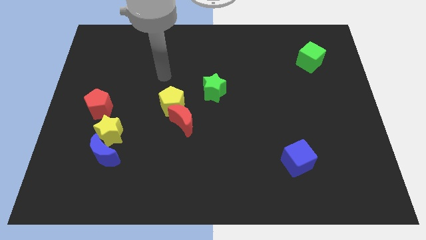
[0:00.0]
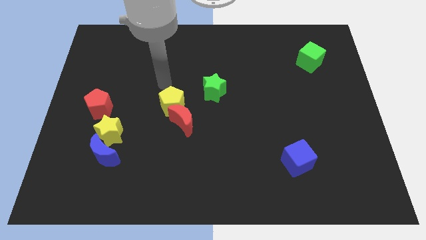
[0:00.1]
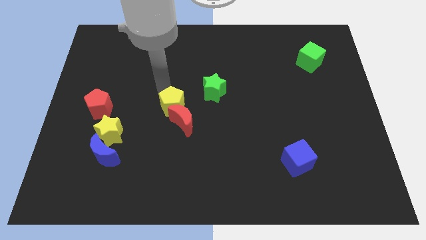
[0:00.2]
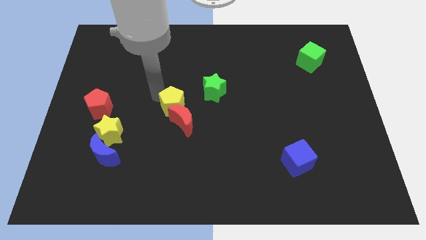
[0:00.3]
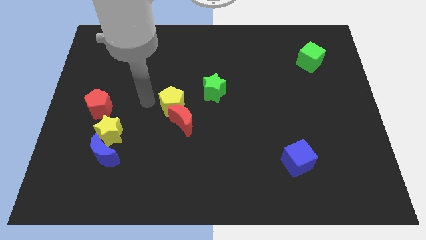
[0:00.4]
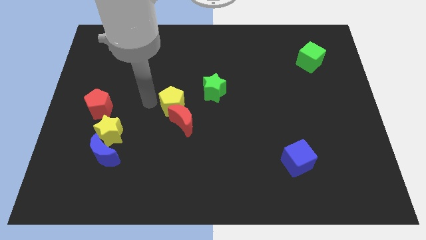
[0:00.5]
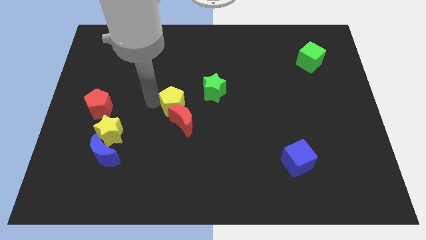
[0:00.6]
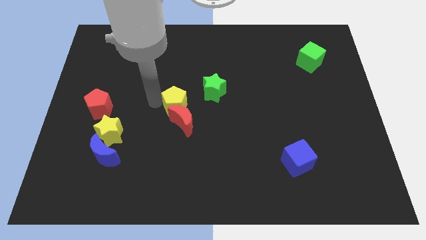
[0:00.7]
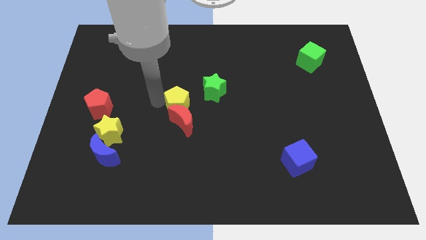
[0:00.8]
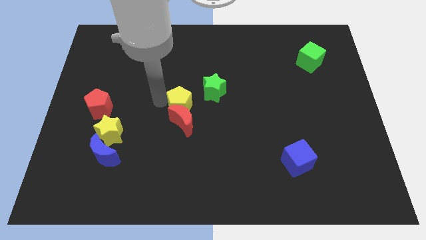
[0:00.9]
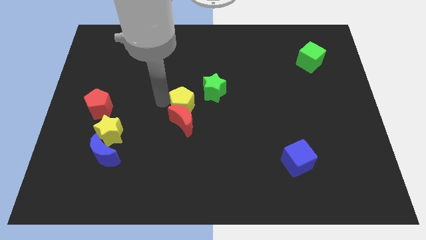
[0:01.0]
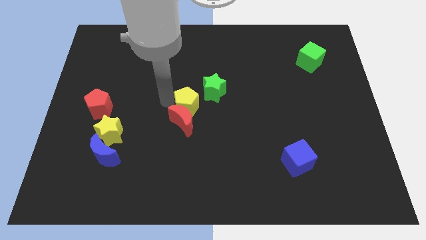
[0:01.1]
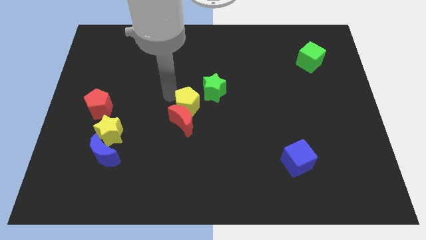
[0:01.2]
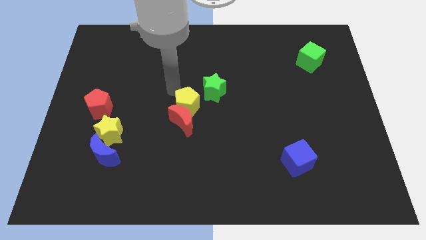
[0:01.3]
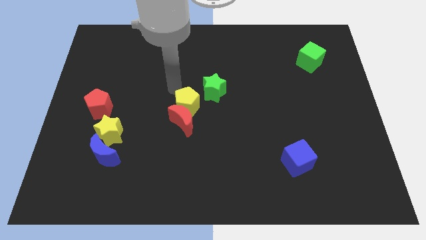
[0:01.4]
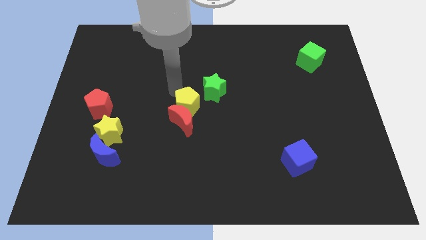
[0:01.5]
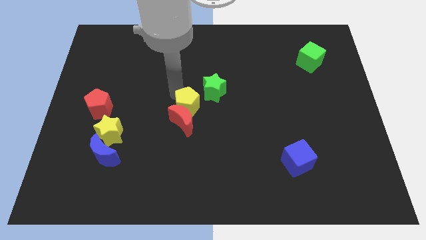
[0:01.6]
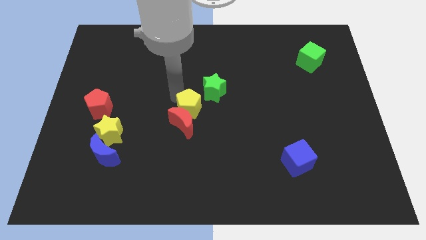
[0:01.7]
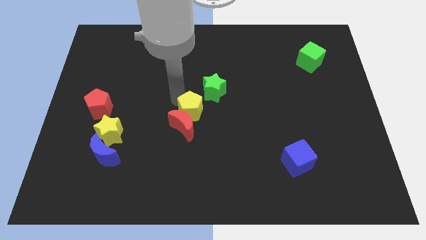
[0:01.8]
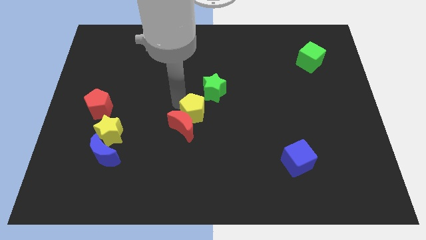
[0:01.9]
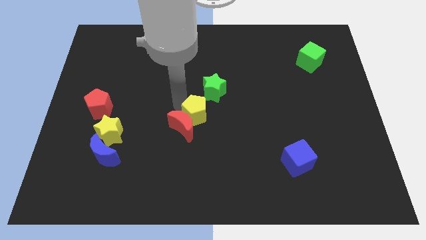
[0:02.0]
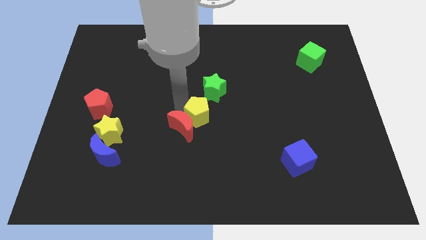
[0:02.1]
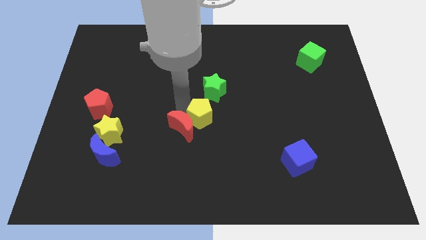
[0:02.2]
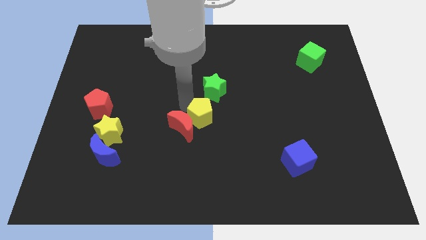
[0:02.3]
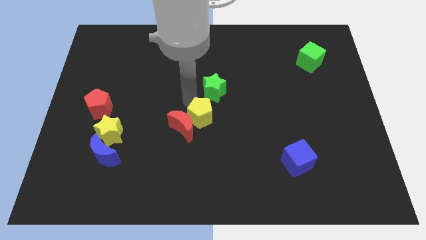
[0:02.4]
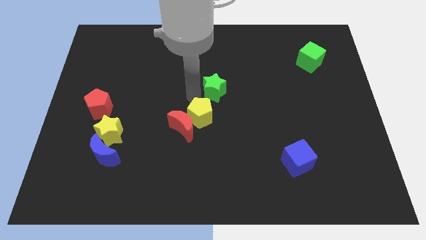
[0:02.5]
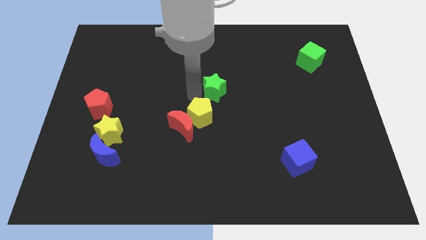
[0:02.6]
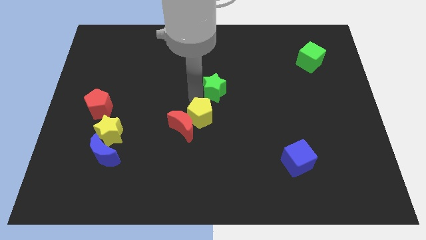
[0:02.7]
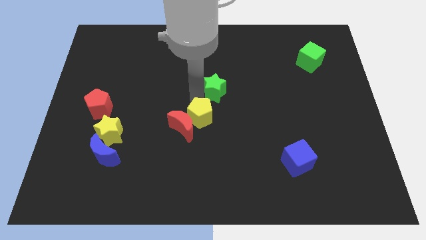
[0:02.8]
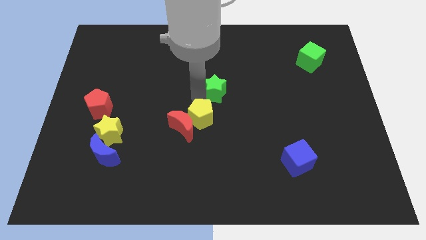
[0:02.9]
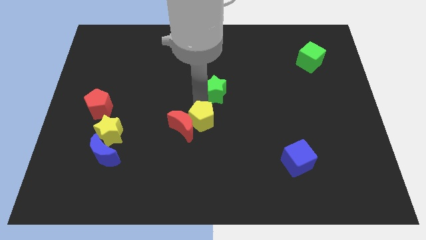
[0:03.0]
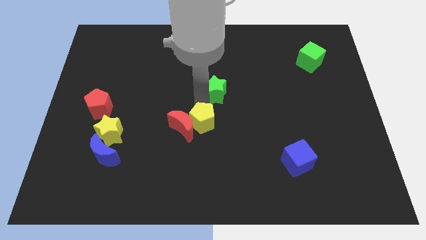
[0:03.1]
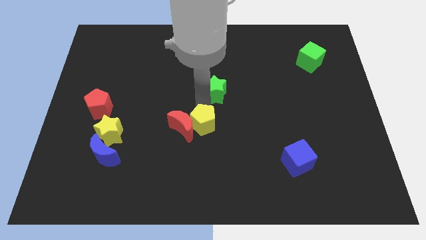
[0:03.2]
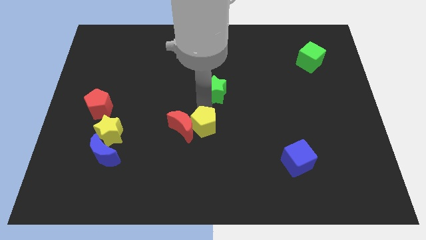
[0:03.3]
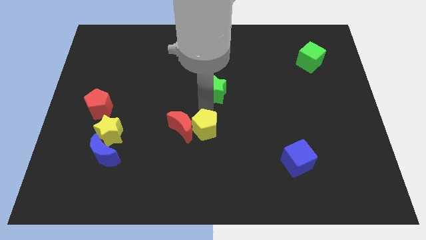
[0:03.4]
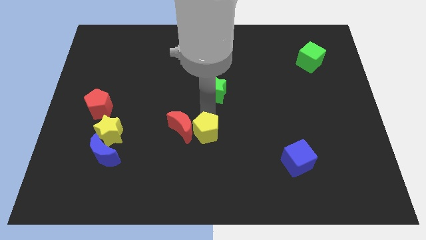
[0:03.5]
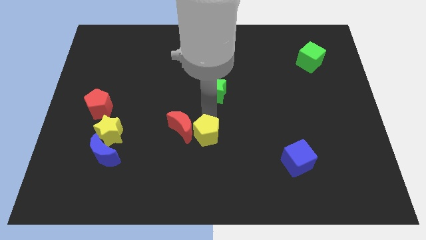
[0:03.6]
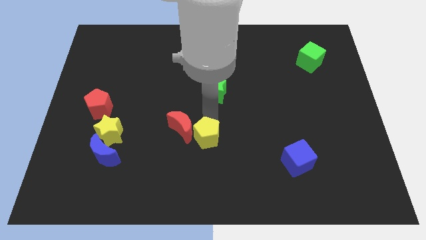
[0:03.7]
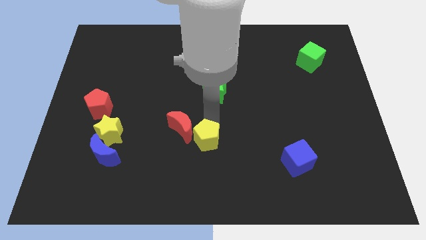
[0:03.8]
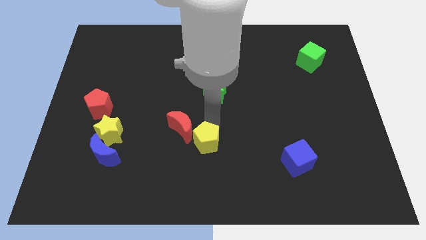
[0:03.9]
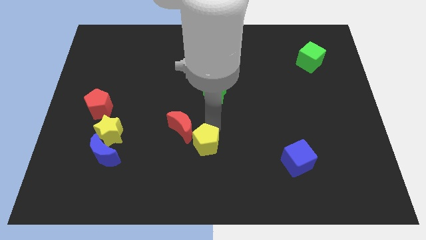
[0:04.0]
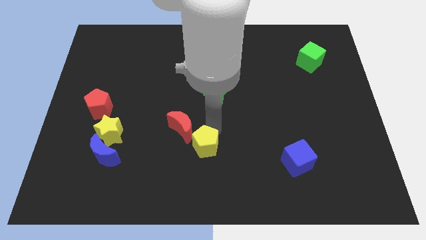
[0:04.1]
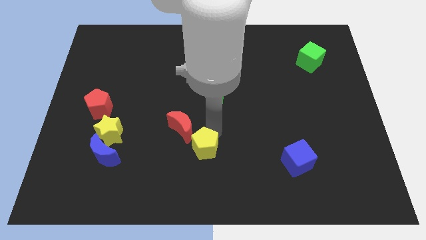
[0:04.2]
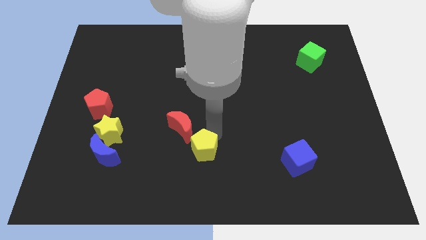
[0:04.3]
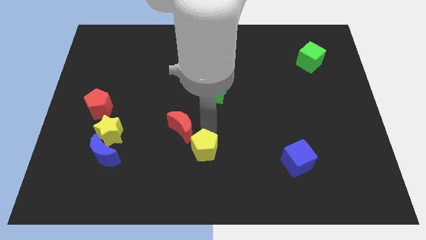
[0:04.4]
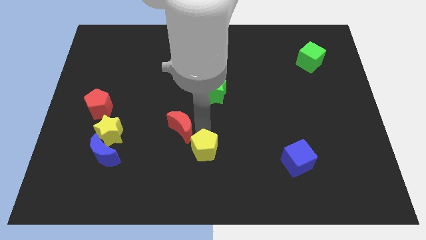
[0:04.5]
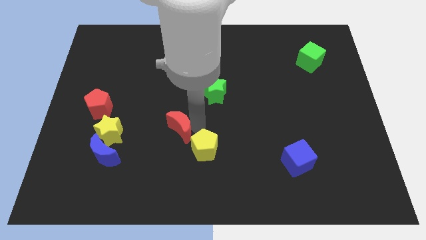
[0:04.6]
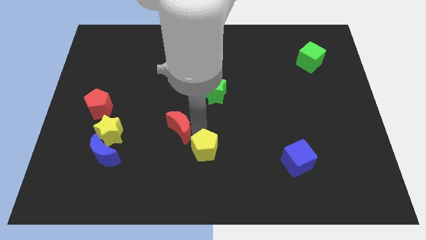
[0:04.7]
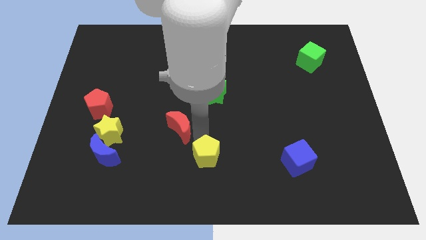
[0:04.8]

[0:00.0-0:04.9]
move the yellow pentagon to the bottom side

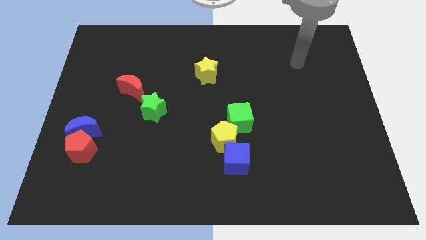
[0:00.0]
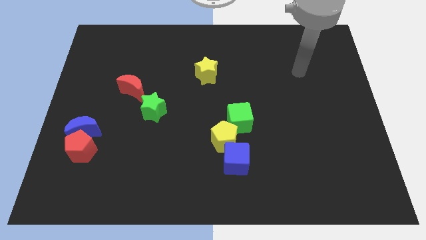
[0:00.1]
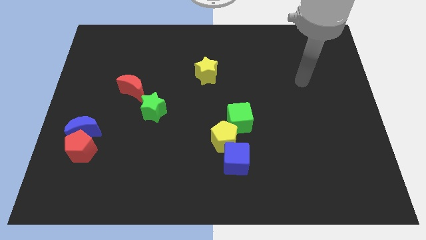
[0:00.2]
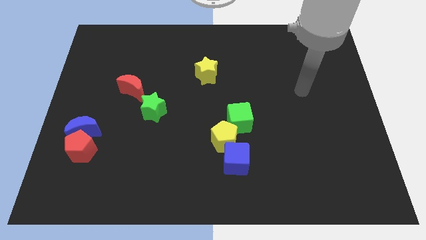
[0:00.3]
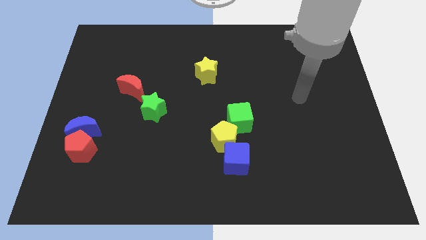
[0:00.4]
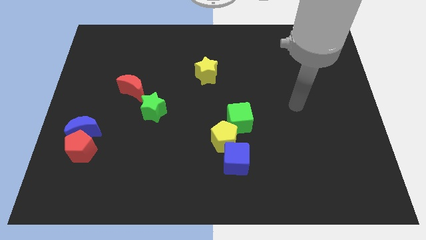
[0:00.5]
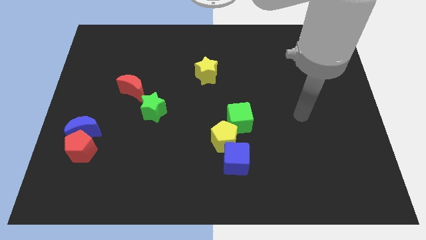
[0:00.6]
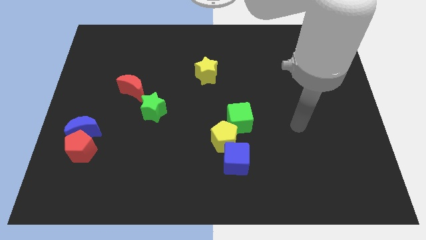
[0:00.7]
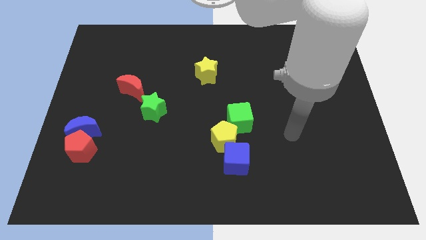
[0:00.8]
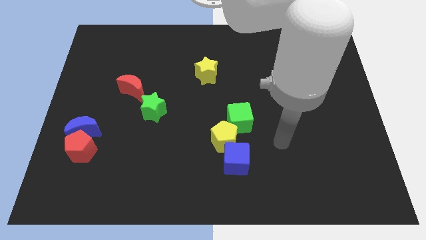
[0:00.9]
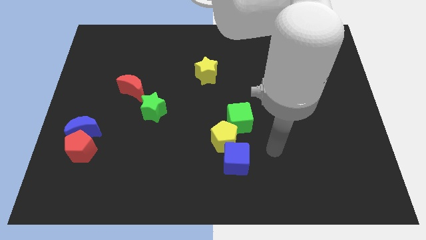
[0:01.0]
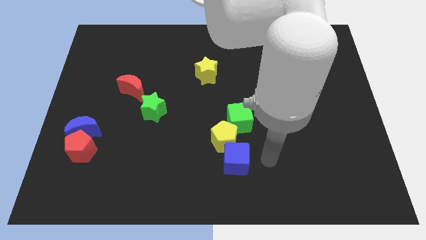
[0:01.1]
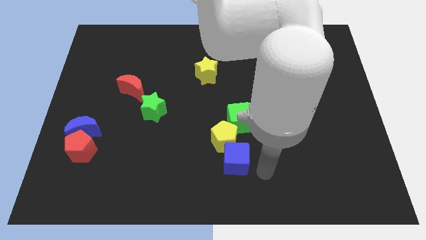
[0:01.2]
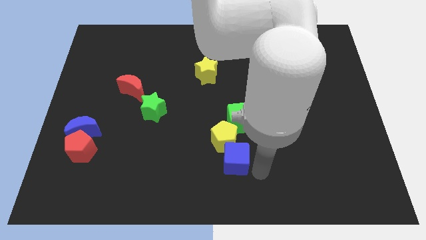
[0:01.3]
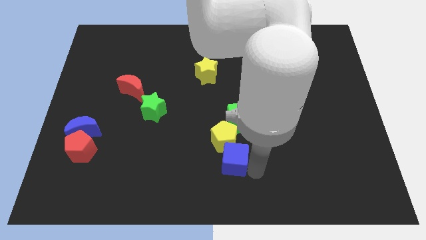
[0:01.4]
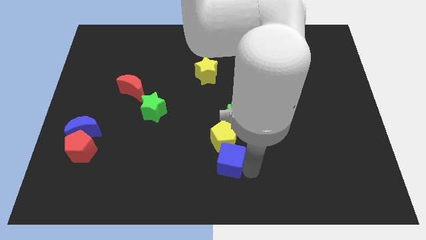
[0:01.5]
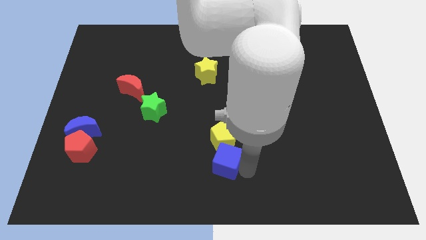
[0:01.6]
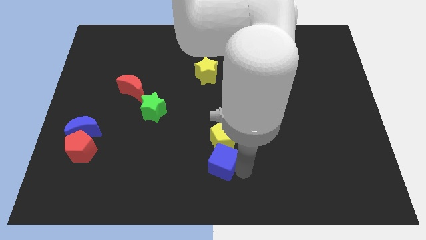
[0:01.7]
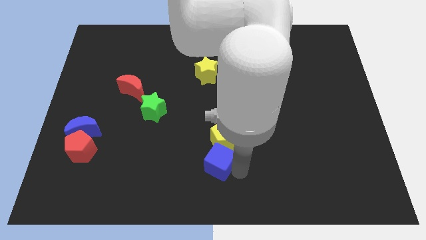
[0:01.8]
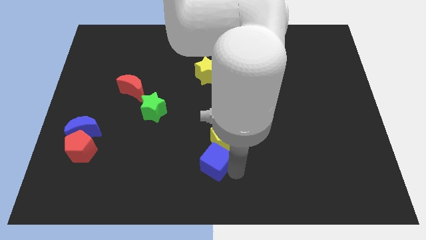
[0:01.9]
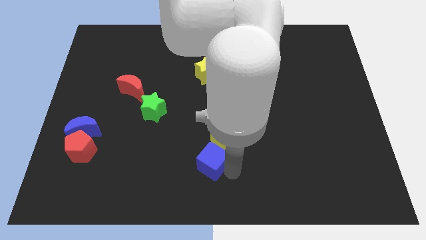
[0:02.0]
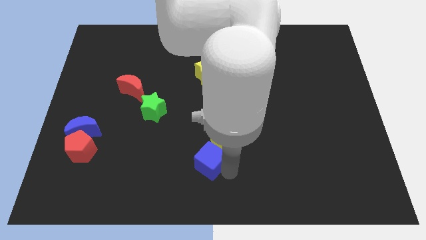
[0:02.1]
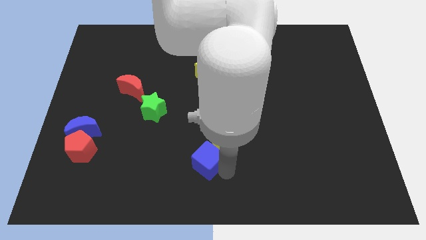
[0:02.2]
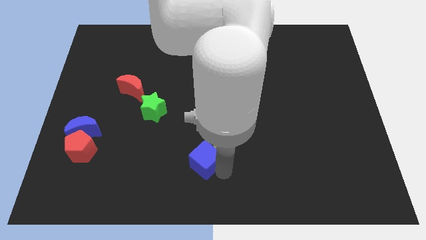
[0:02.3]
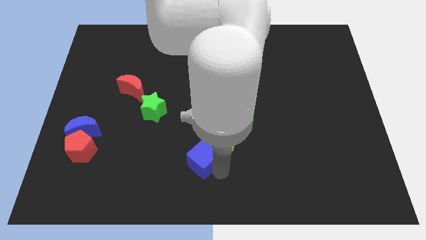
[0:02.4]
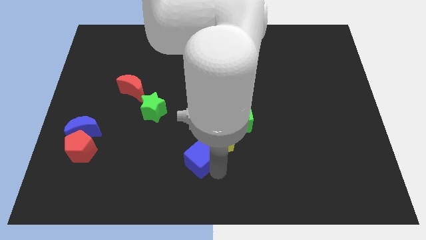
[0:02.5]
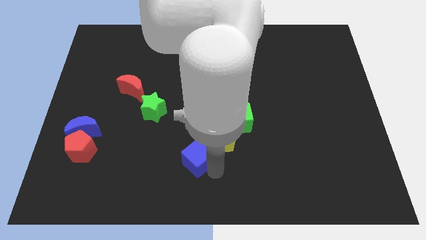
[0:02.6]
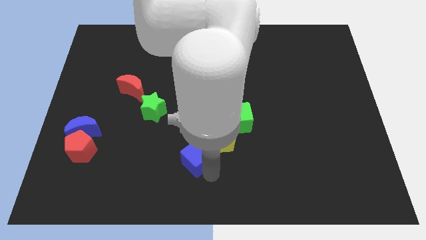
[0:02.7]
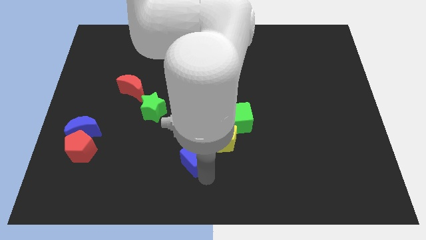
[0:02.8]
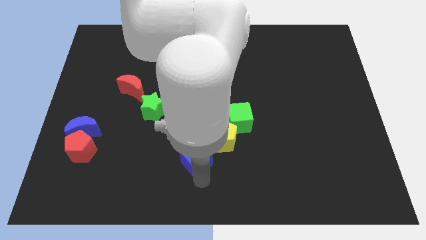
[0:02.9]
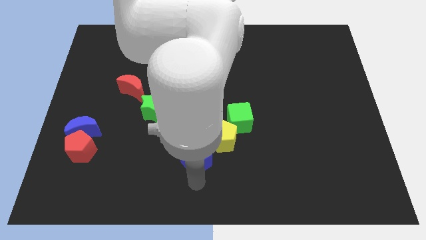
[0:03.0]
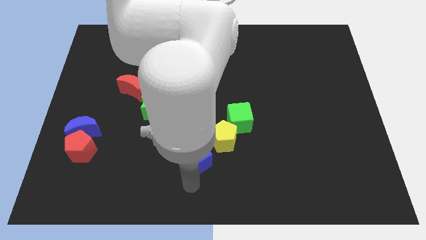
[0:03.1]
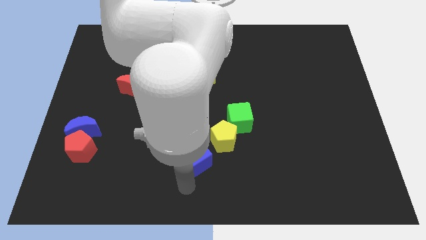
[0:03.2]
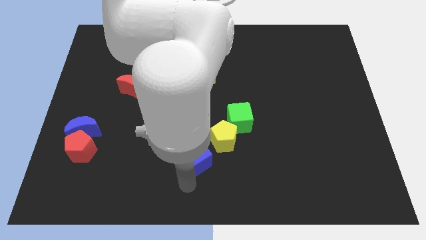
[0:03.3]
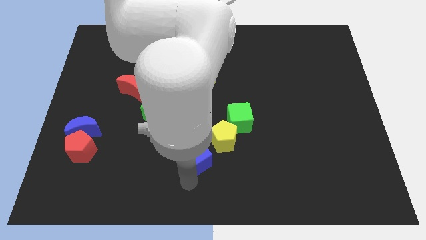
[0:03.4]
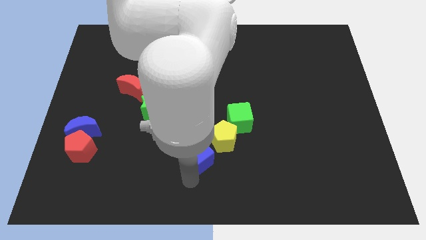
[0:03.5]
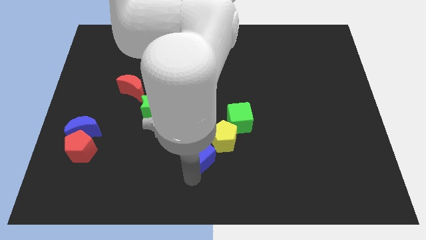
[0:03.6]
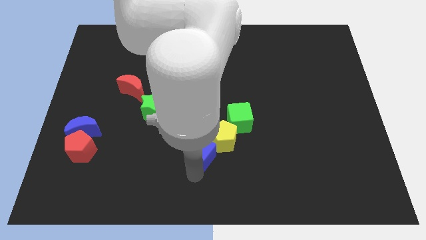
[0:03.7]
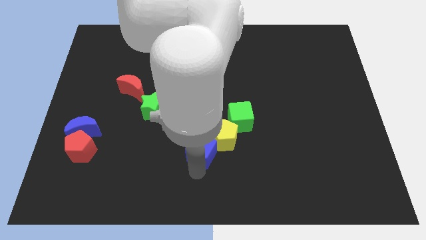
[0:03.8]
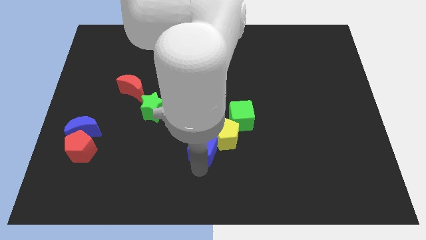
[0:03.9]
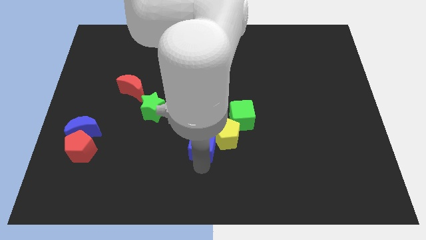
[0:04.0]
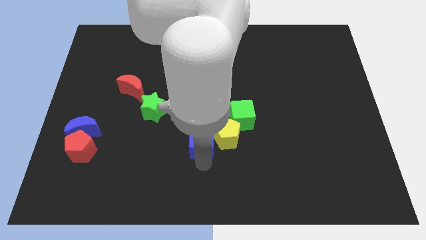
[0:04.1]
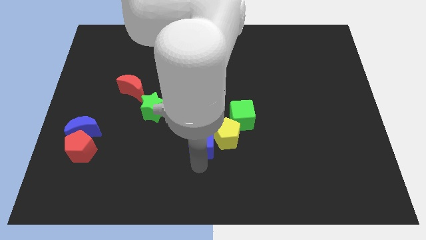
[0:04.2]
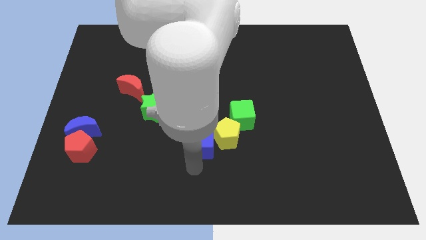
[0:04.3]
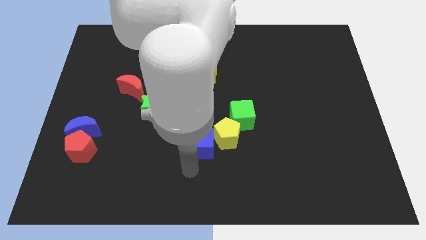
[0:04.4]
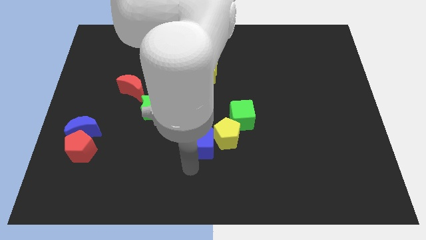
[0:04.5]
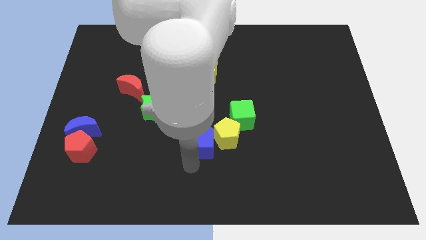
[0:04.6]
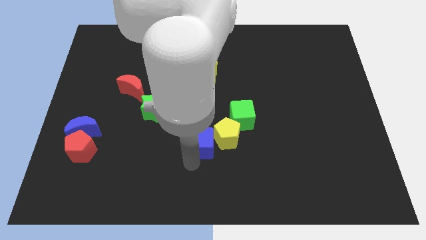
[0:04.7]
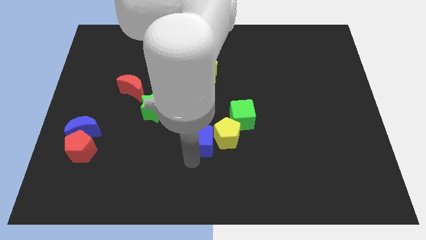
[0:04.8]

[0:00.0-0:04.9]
move the blue cube to the middle of the board
